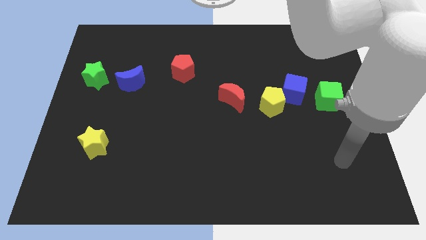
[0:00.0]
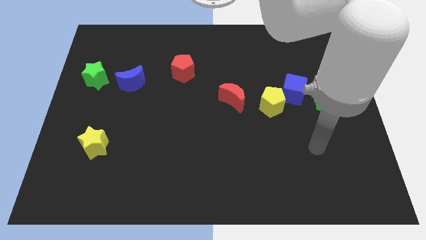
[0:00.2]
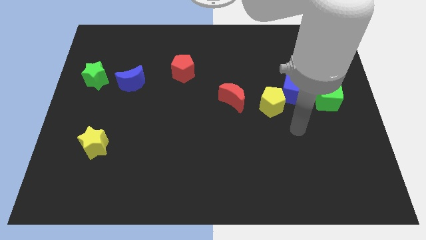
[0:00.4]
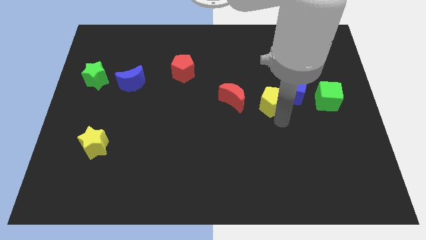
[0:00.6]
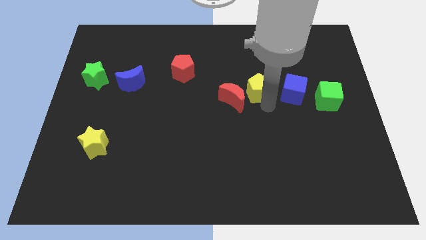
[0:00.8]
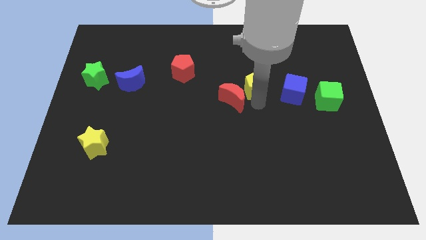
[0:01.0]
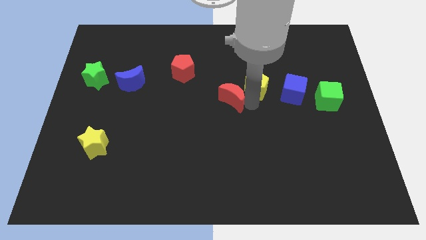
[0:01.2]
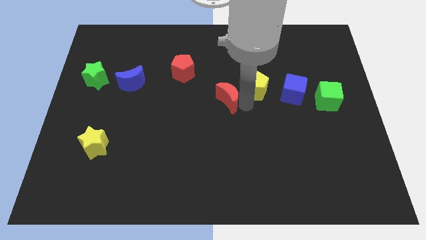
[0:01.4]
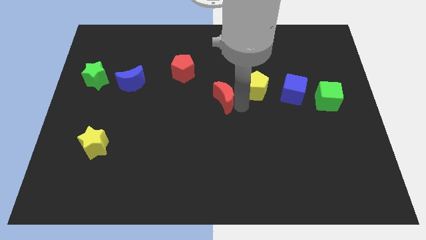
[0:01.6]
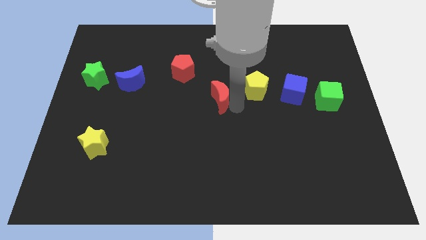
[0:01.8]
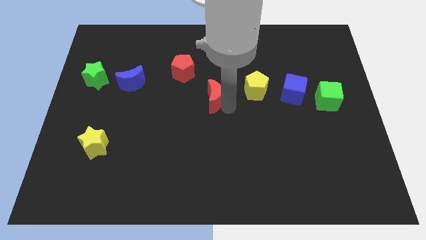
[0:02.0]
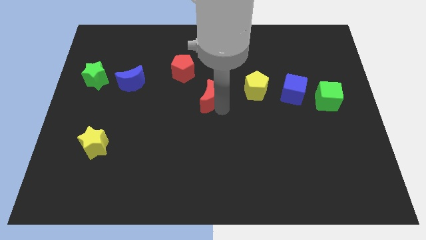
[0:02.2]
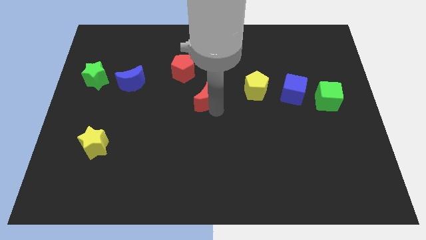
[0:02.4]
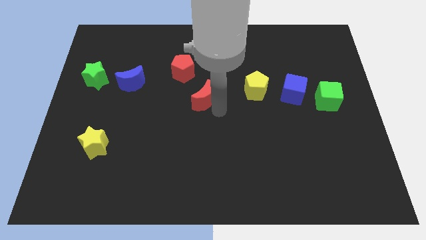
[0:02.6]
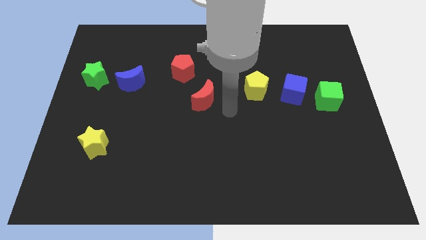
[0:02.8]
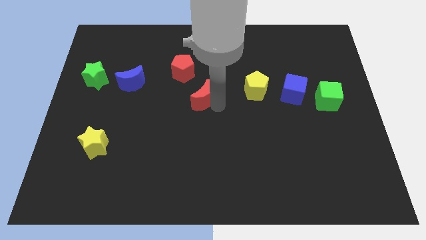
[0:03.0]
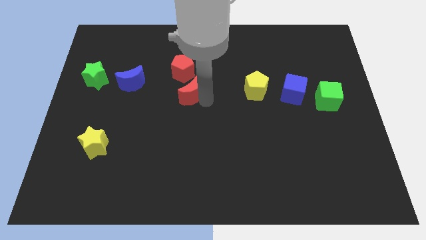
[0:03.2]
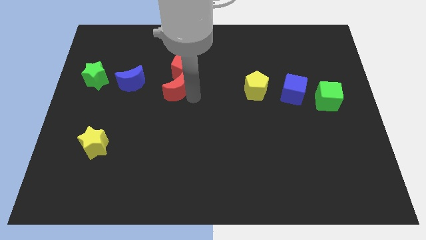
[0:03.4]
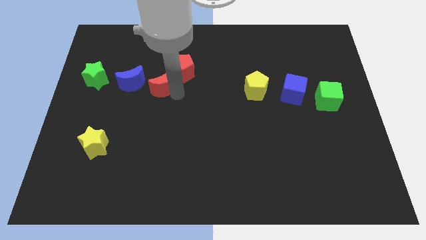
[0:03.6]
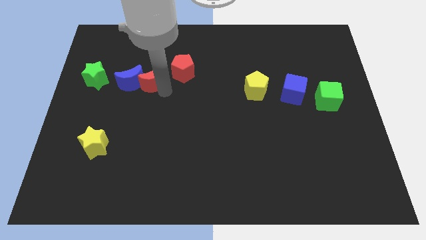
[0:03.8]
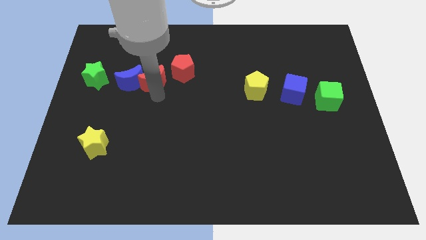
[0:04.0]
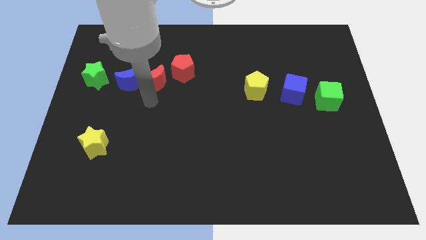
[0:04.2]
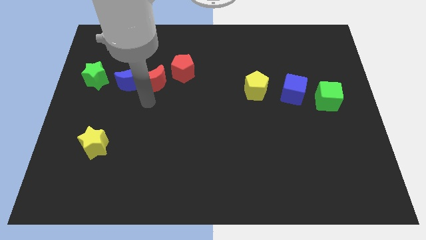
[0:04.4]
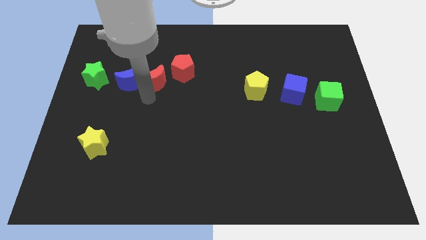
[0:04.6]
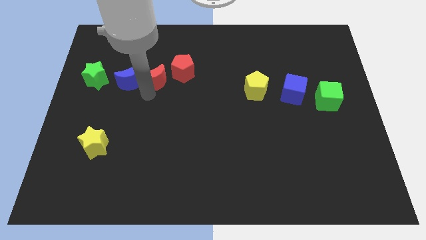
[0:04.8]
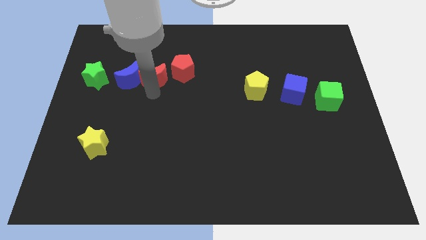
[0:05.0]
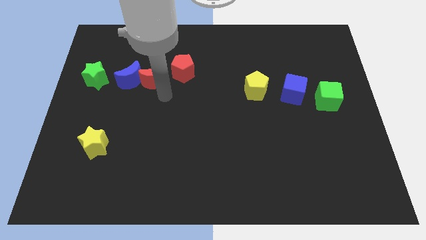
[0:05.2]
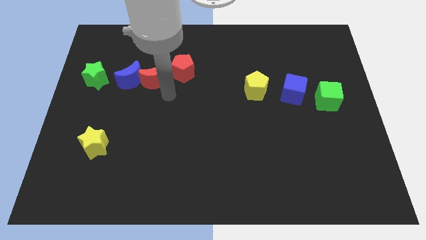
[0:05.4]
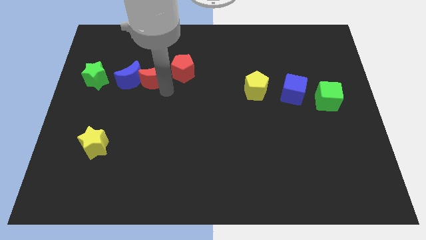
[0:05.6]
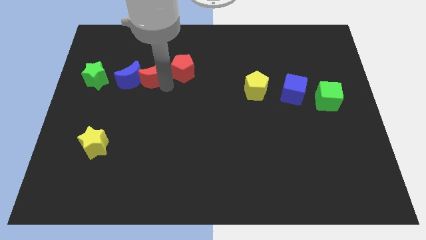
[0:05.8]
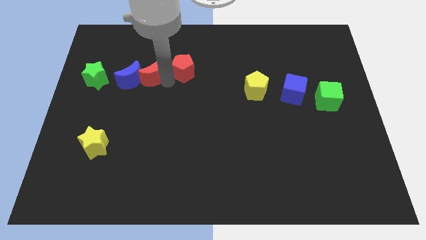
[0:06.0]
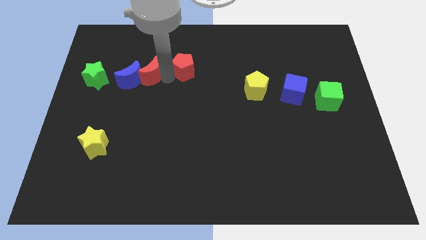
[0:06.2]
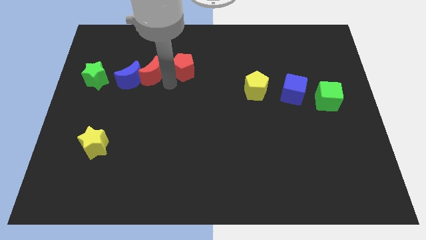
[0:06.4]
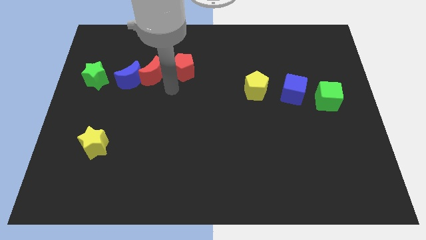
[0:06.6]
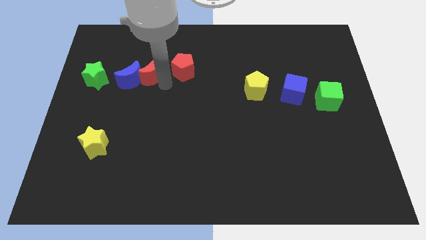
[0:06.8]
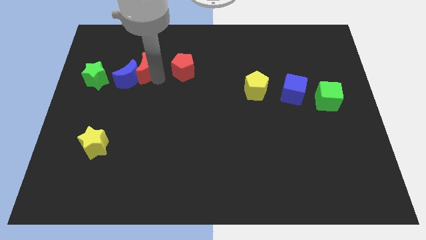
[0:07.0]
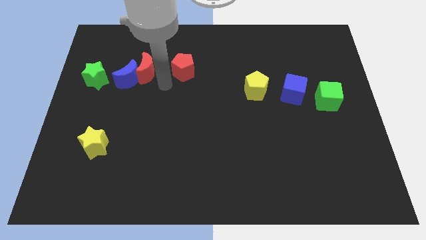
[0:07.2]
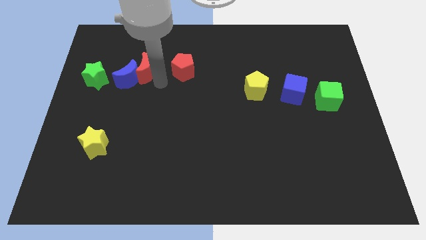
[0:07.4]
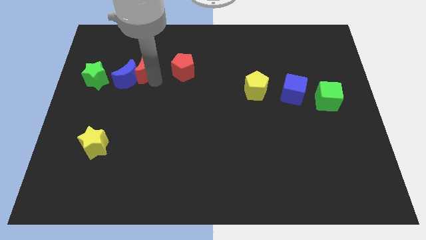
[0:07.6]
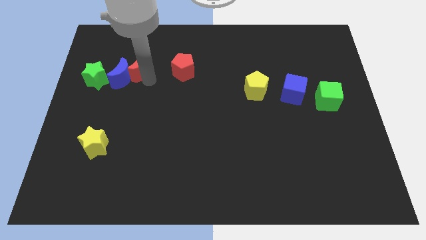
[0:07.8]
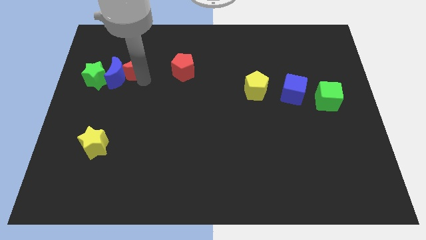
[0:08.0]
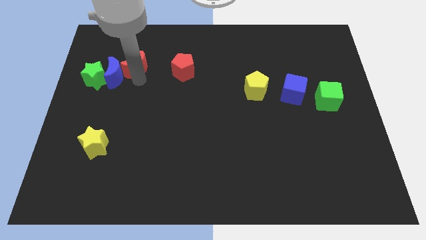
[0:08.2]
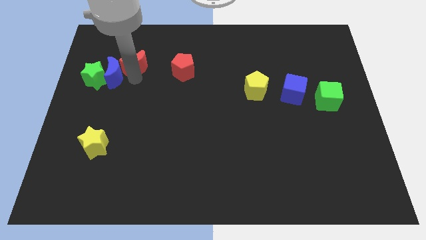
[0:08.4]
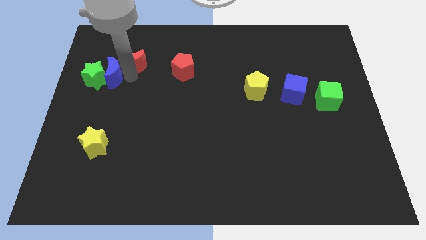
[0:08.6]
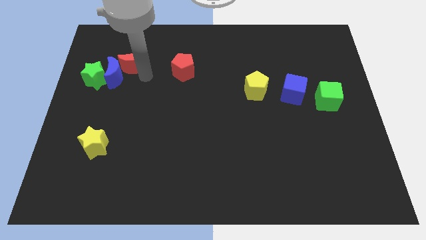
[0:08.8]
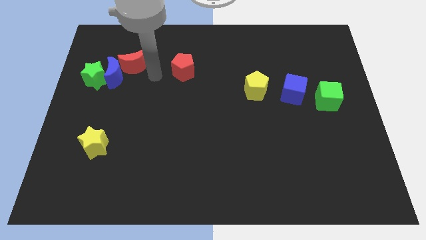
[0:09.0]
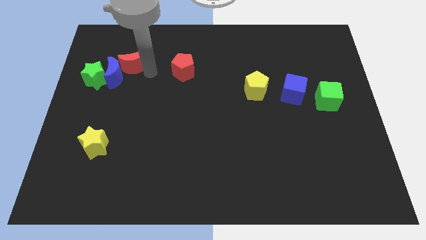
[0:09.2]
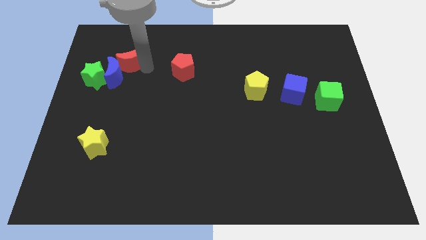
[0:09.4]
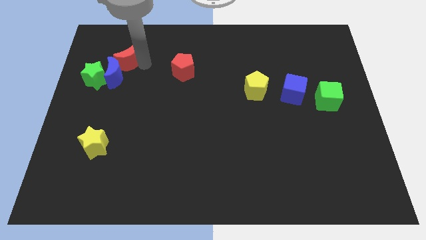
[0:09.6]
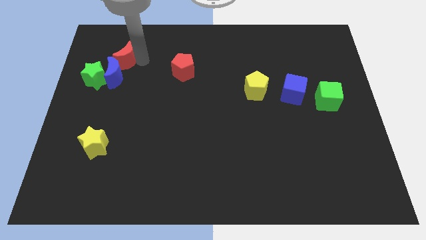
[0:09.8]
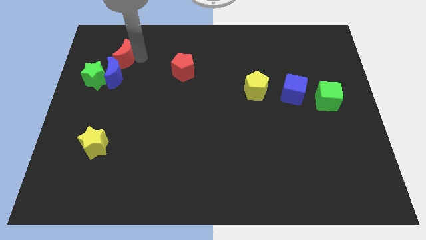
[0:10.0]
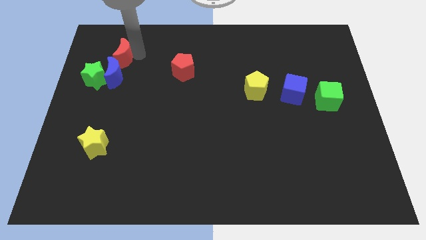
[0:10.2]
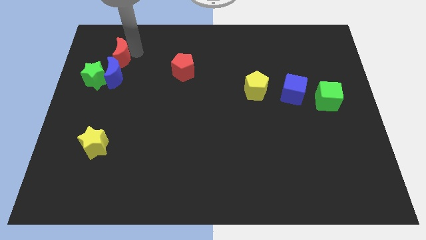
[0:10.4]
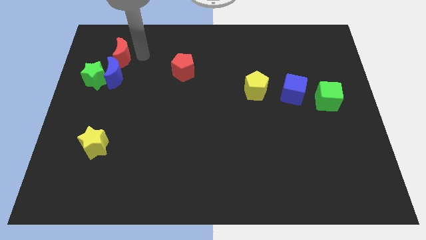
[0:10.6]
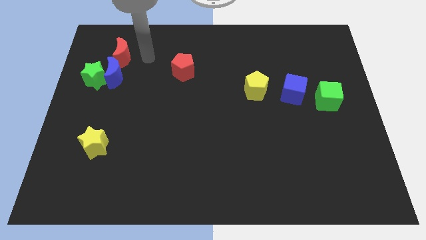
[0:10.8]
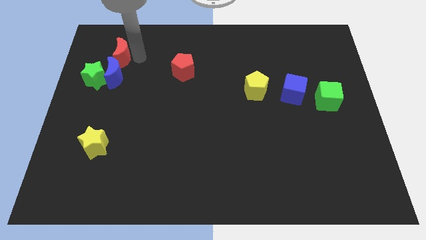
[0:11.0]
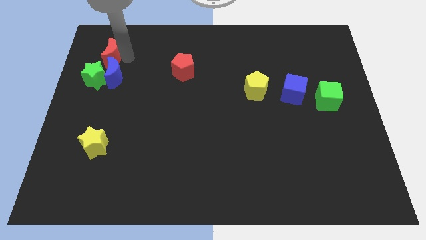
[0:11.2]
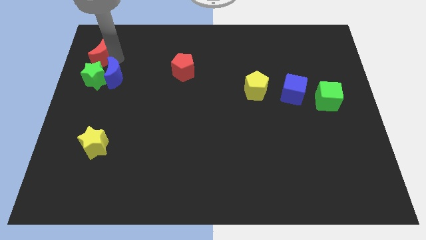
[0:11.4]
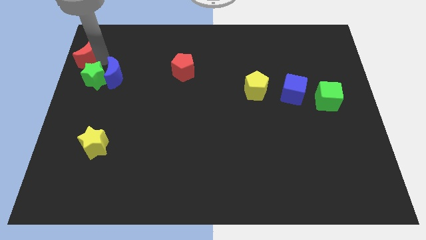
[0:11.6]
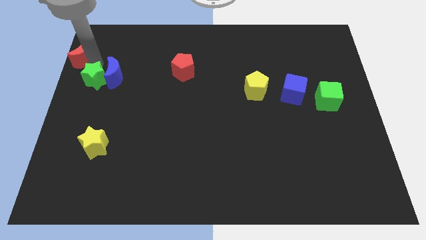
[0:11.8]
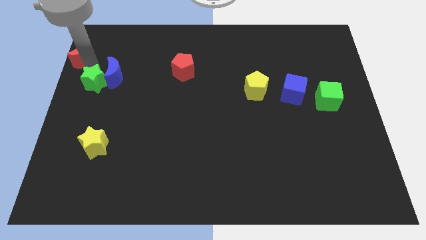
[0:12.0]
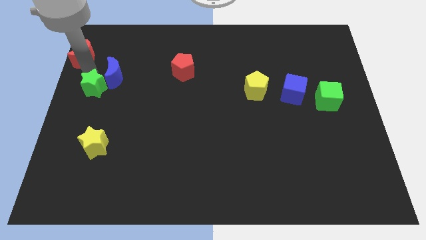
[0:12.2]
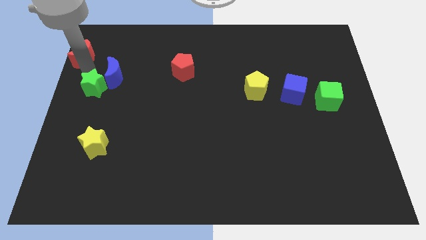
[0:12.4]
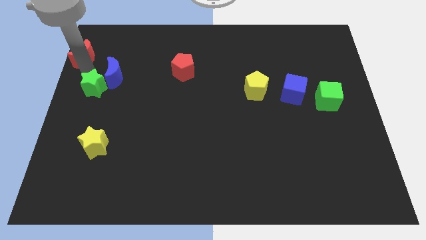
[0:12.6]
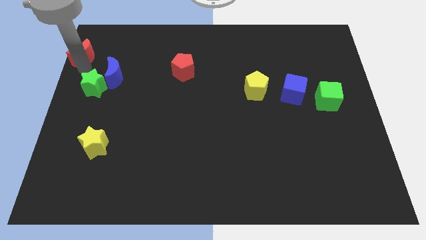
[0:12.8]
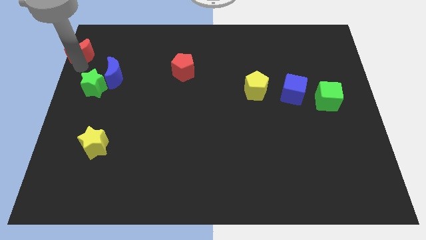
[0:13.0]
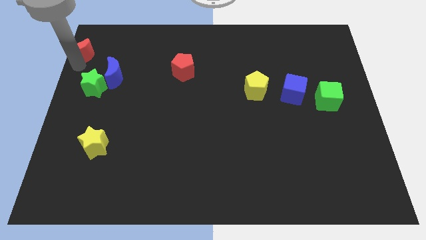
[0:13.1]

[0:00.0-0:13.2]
slide the red moon to the top left corner
